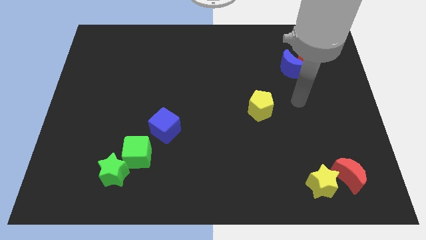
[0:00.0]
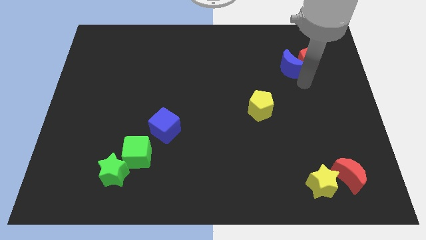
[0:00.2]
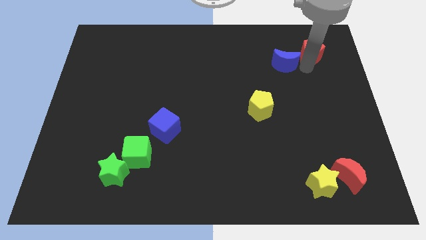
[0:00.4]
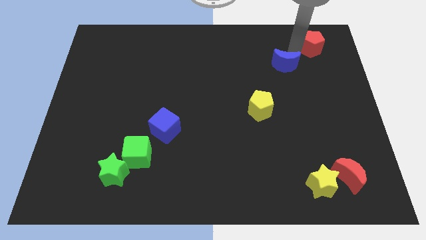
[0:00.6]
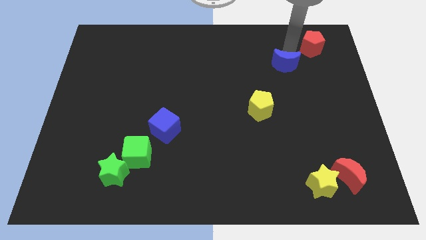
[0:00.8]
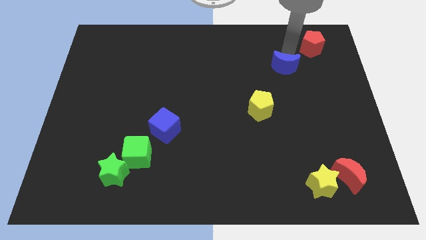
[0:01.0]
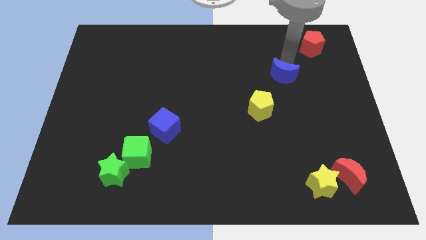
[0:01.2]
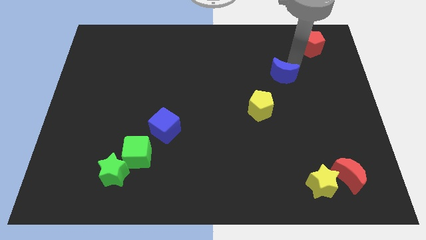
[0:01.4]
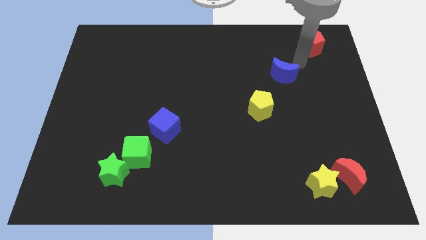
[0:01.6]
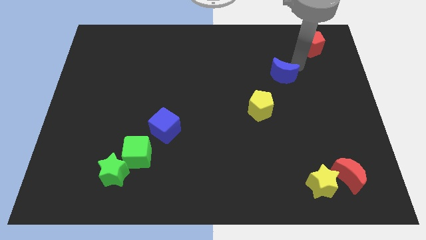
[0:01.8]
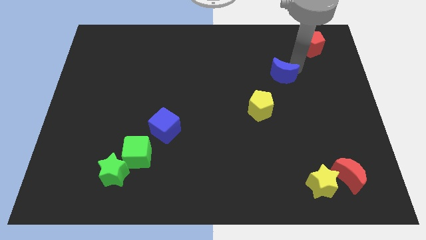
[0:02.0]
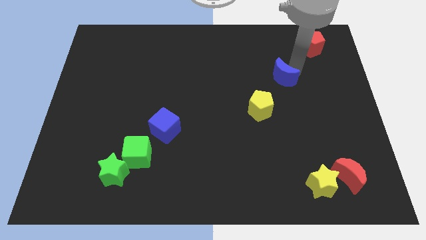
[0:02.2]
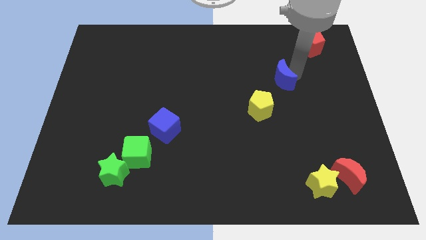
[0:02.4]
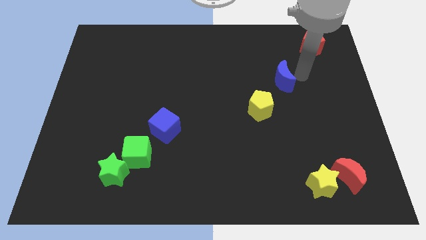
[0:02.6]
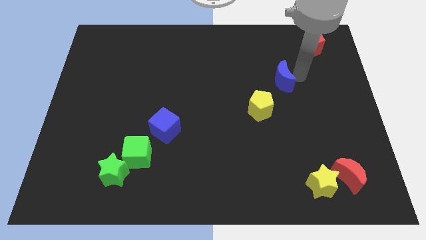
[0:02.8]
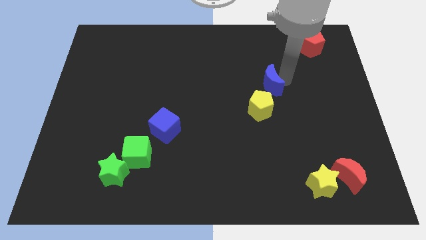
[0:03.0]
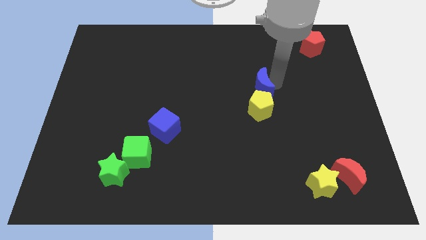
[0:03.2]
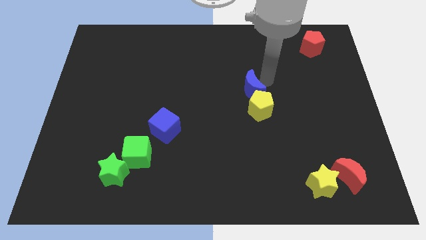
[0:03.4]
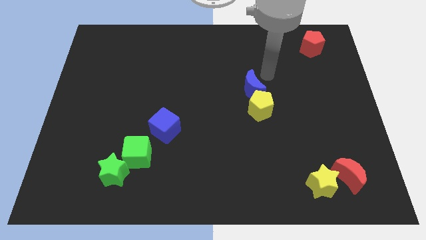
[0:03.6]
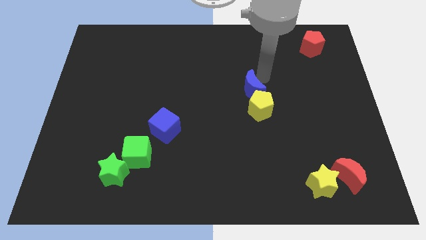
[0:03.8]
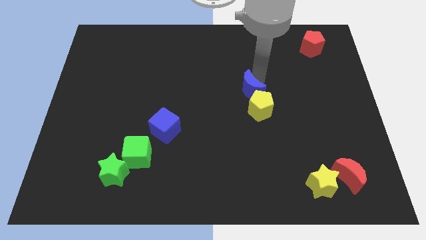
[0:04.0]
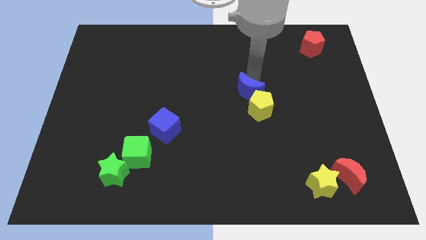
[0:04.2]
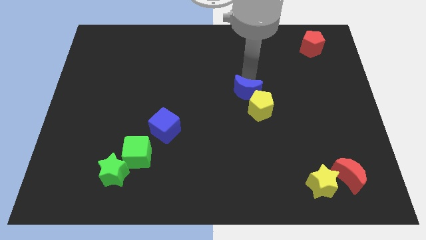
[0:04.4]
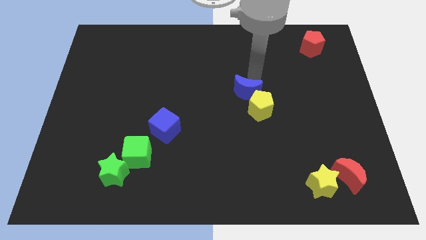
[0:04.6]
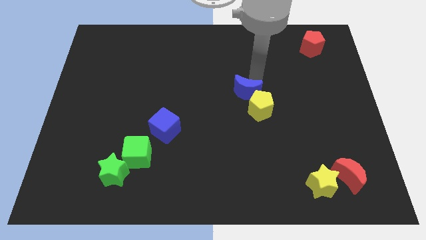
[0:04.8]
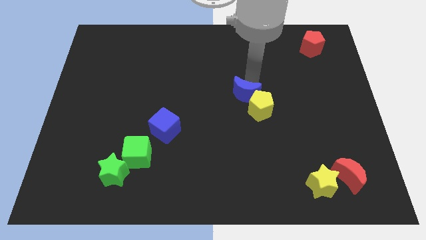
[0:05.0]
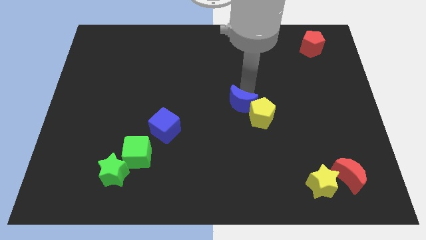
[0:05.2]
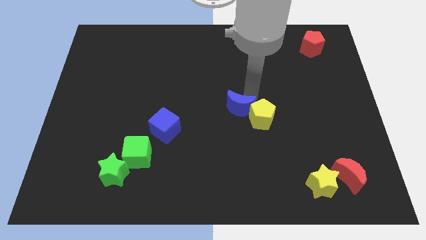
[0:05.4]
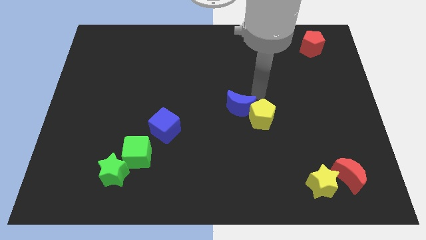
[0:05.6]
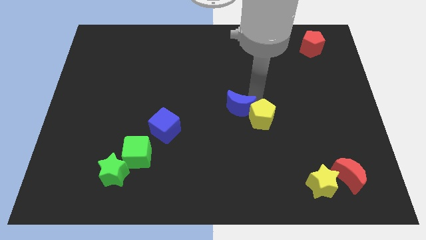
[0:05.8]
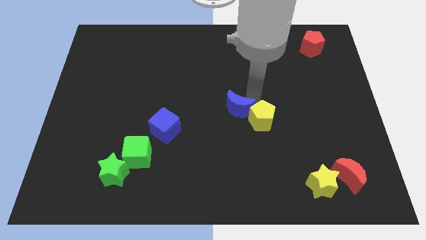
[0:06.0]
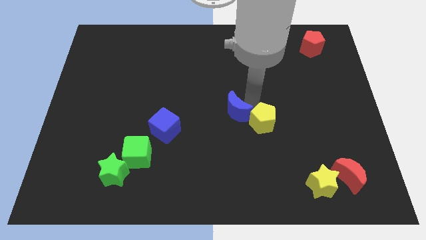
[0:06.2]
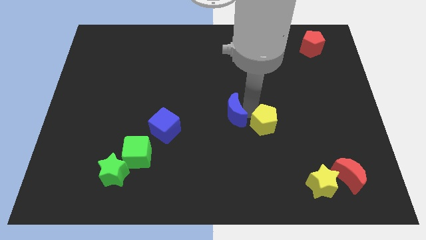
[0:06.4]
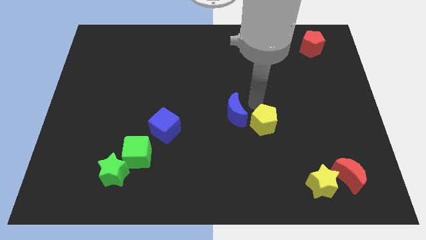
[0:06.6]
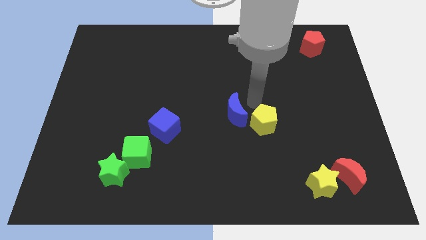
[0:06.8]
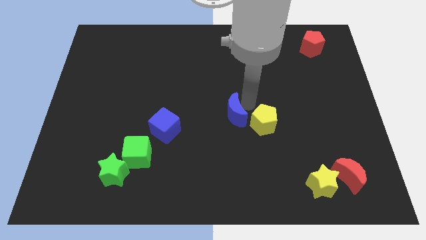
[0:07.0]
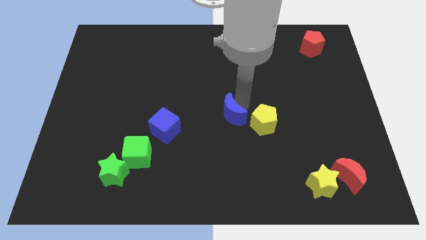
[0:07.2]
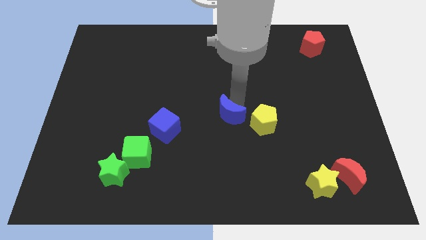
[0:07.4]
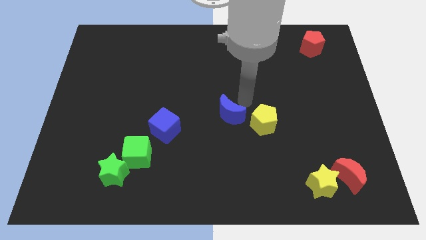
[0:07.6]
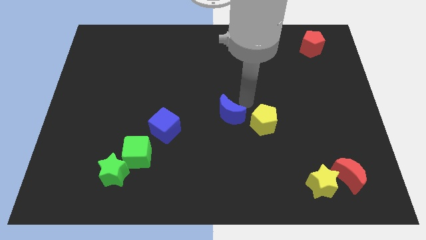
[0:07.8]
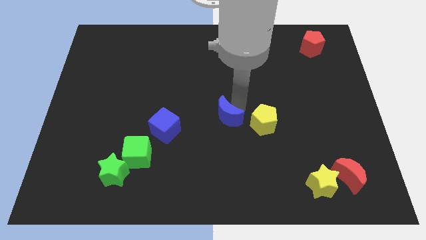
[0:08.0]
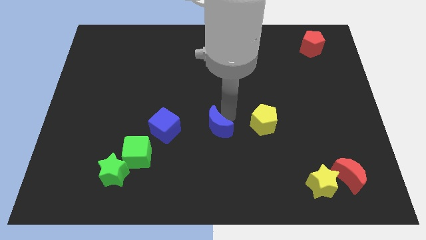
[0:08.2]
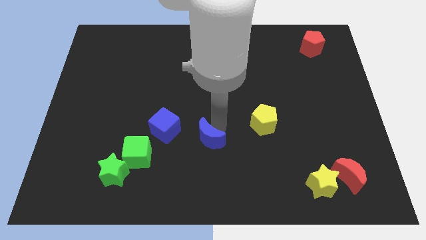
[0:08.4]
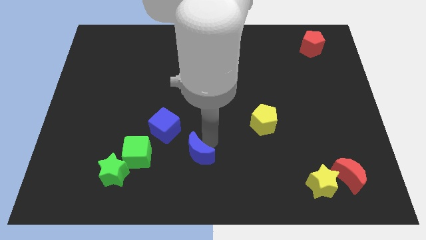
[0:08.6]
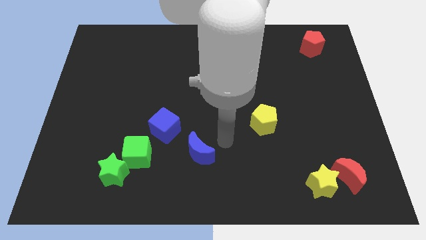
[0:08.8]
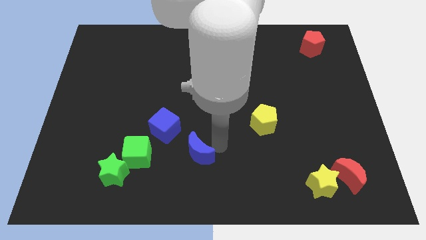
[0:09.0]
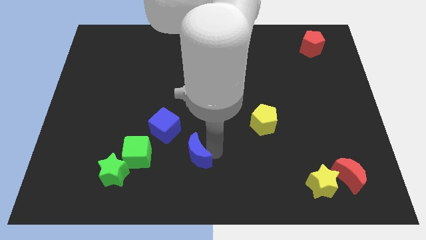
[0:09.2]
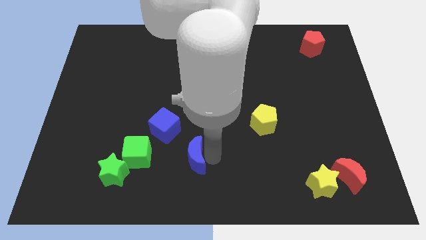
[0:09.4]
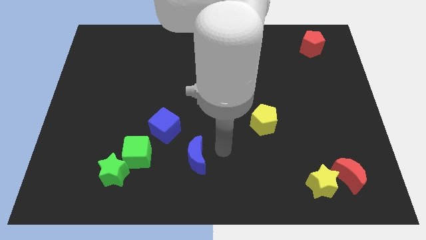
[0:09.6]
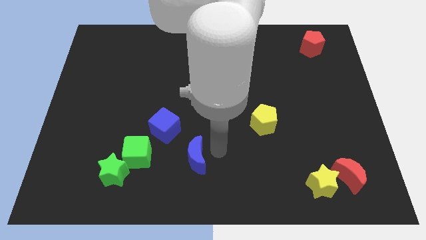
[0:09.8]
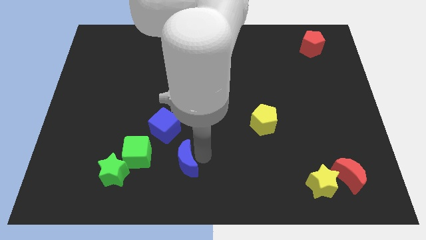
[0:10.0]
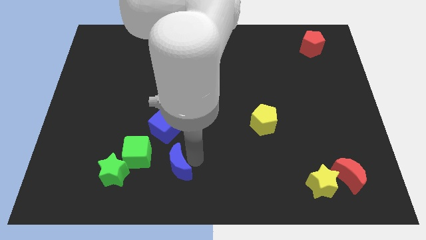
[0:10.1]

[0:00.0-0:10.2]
push the blue moon to the bottom of the blue cube

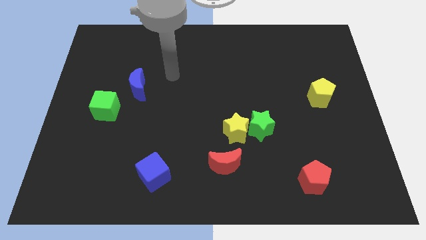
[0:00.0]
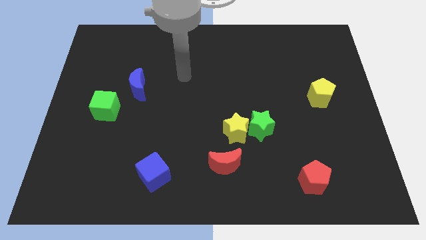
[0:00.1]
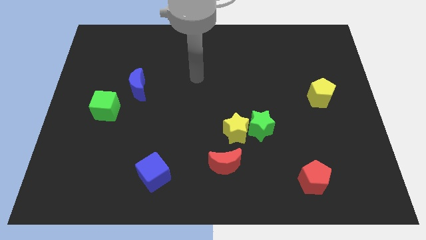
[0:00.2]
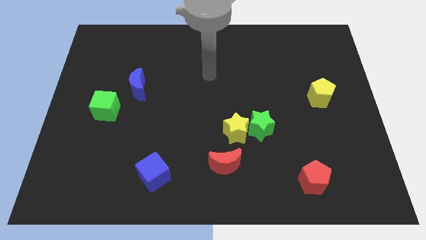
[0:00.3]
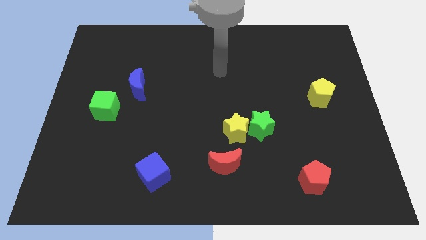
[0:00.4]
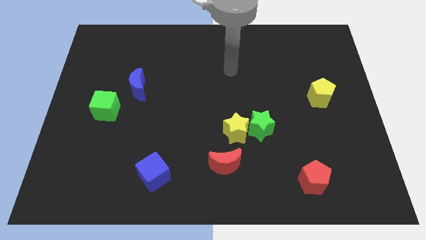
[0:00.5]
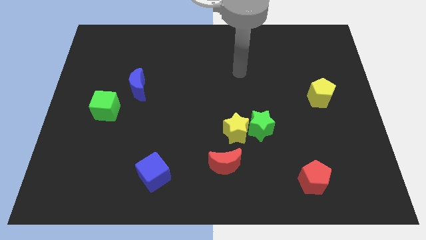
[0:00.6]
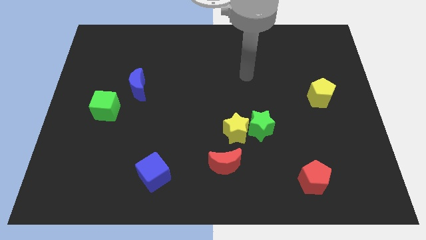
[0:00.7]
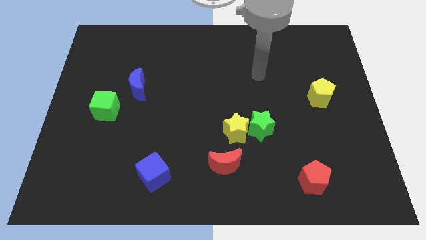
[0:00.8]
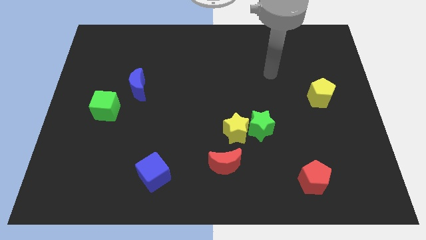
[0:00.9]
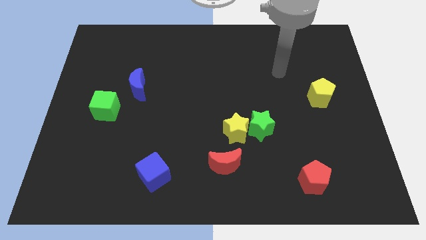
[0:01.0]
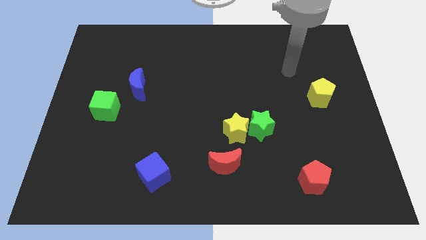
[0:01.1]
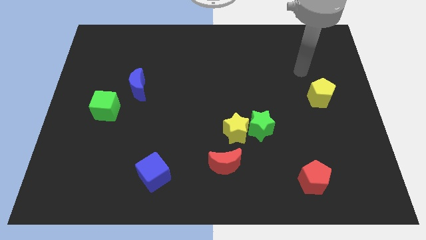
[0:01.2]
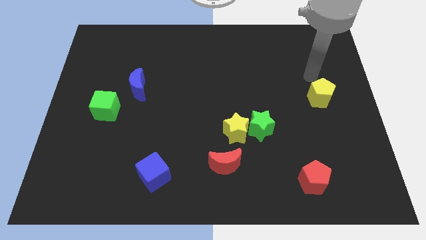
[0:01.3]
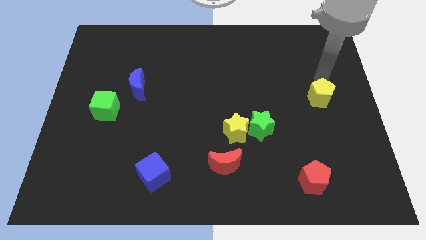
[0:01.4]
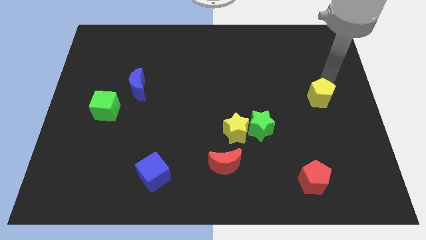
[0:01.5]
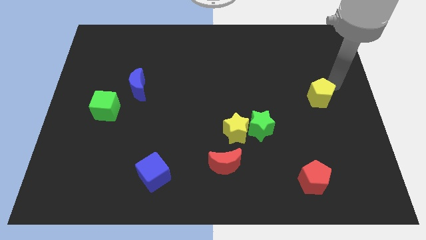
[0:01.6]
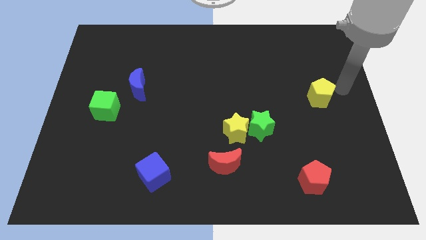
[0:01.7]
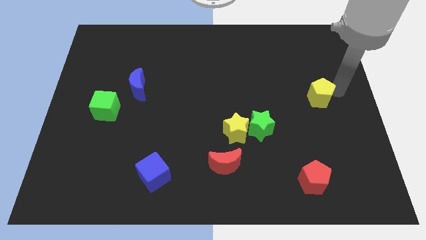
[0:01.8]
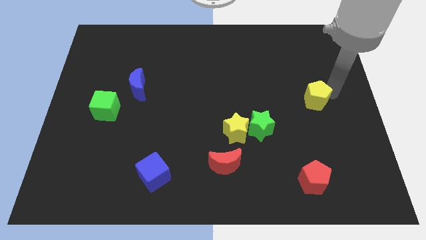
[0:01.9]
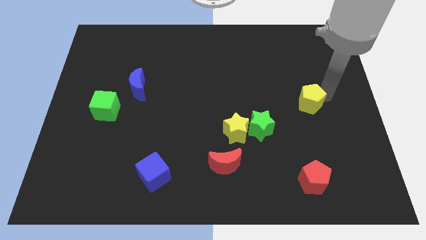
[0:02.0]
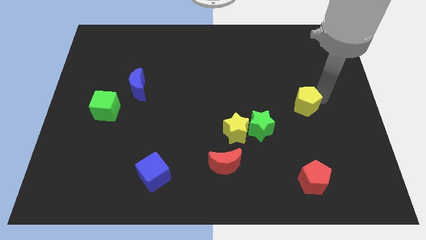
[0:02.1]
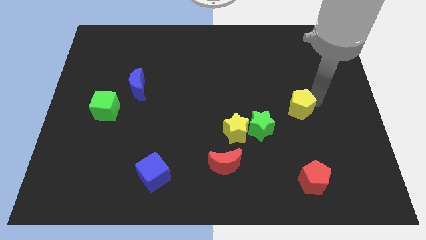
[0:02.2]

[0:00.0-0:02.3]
put the yellow pentagon to the top right side of the green star
